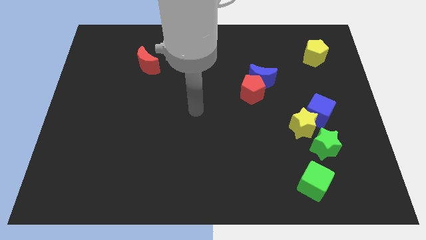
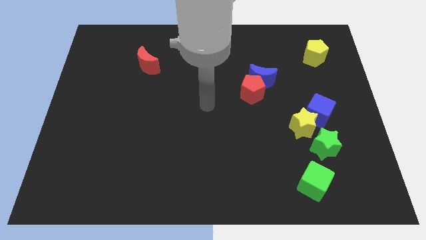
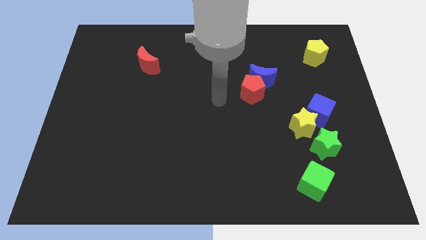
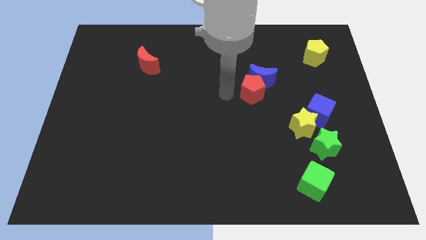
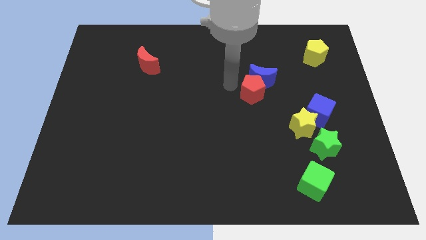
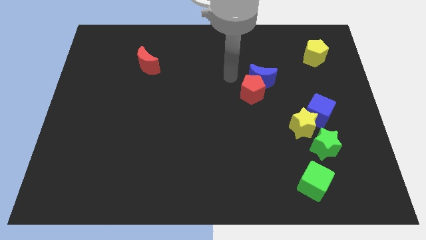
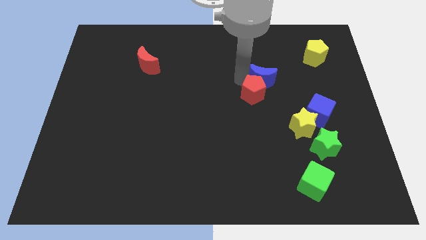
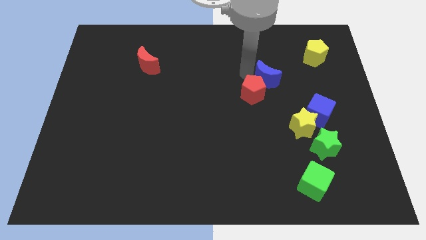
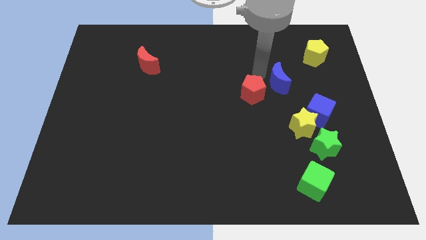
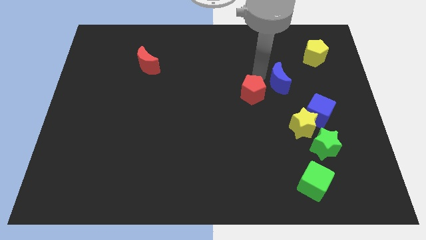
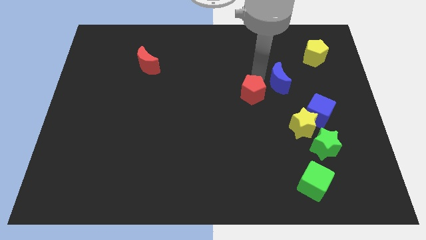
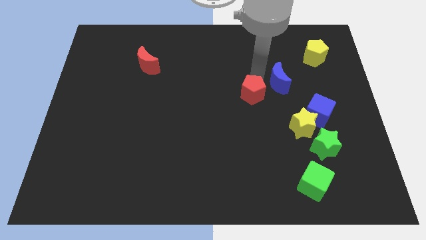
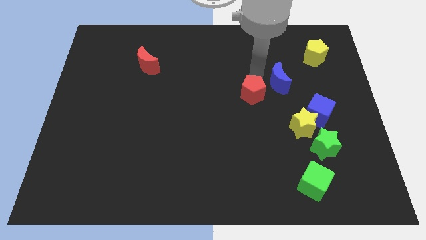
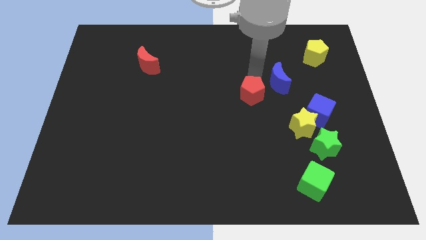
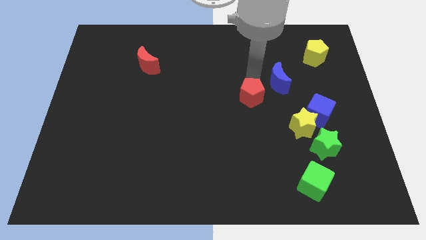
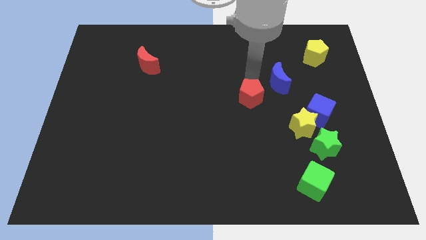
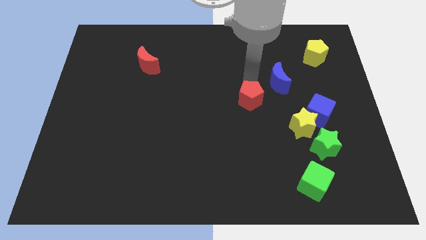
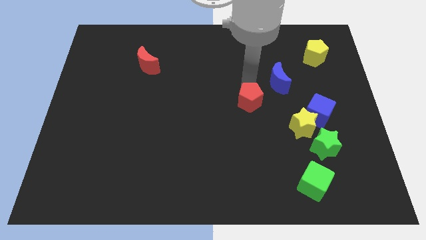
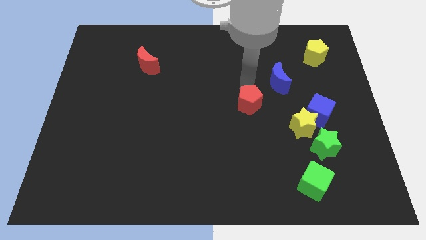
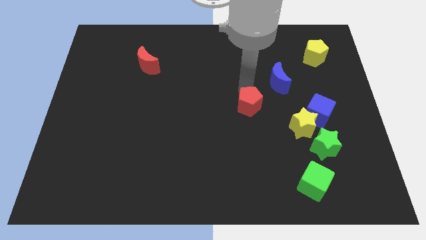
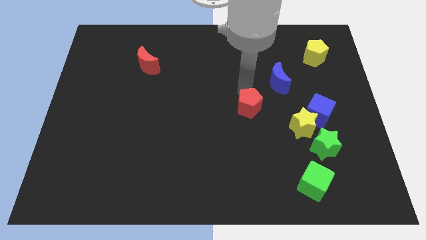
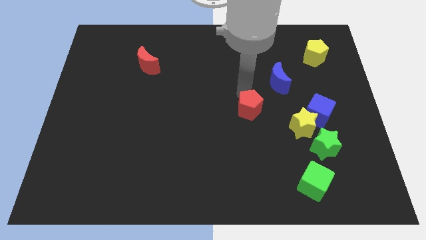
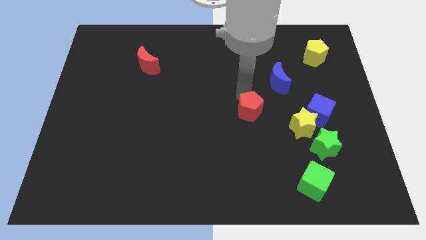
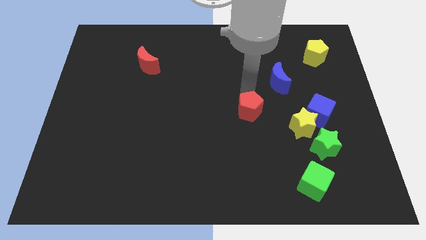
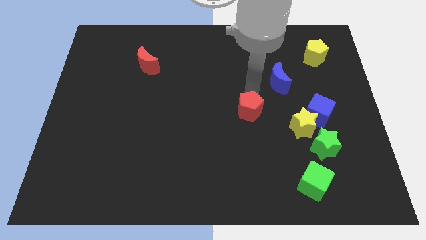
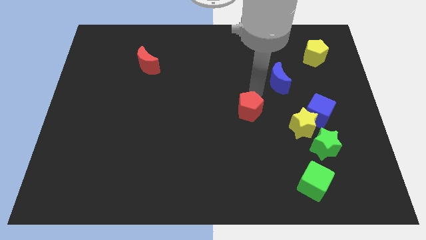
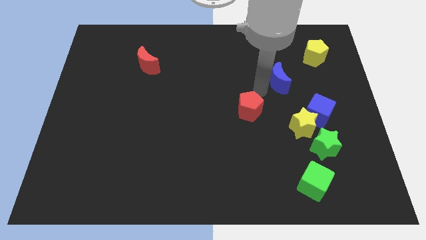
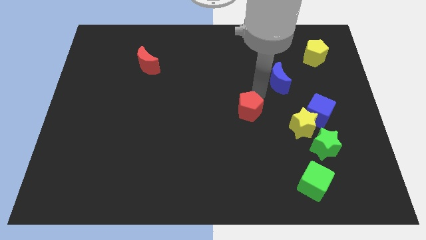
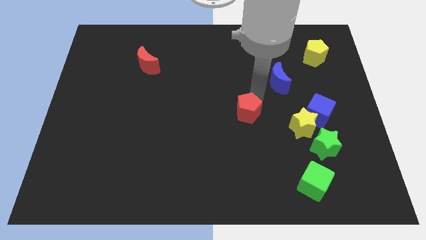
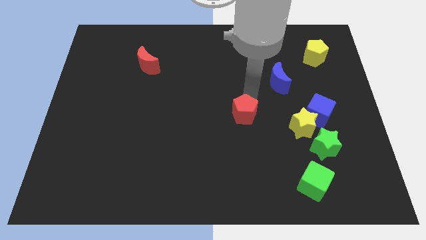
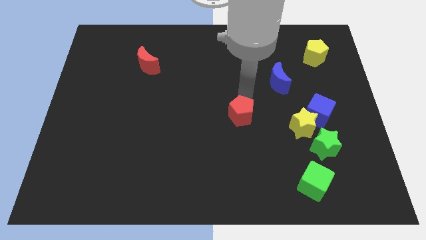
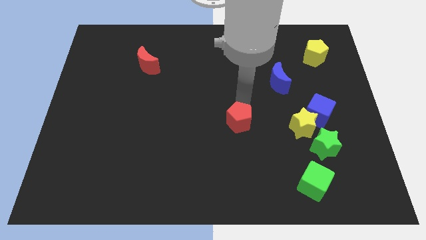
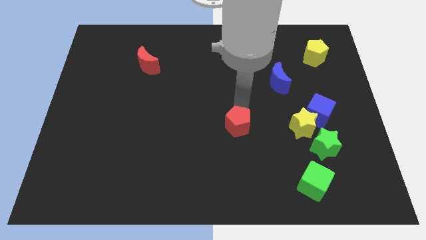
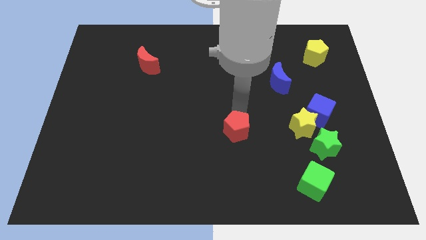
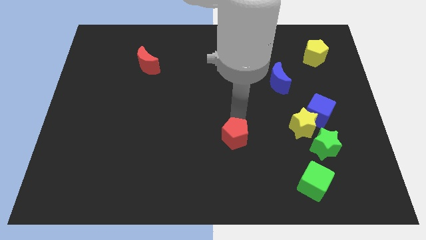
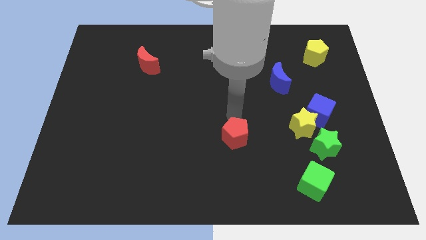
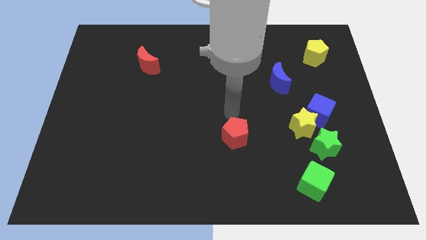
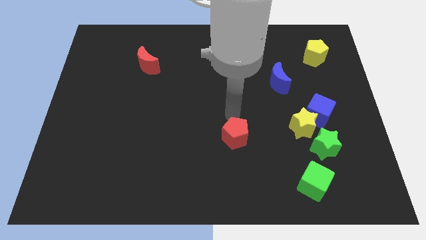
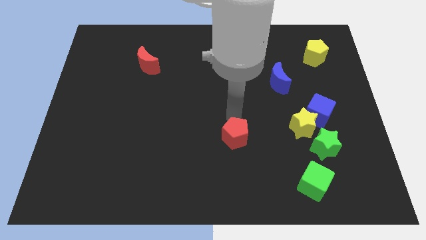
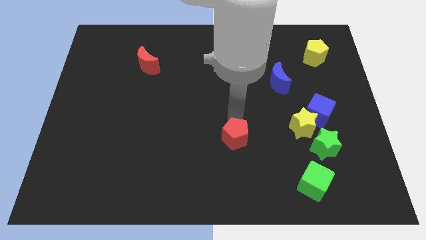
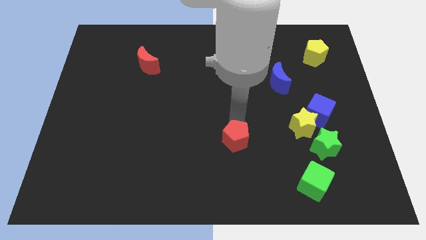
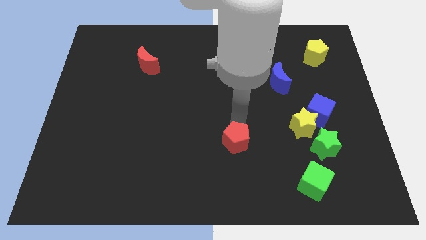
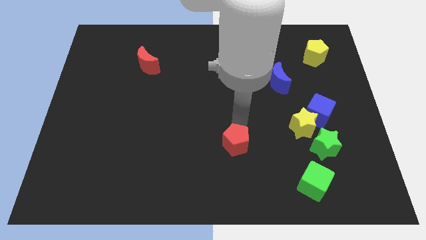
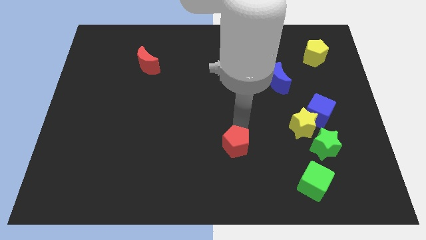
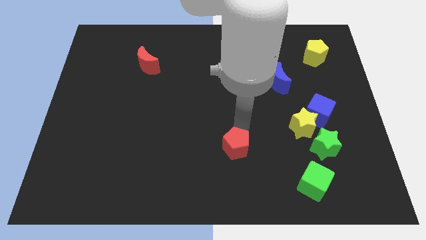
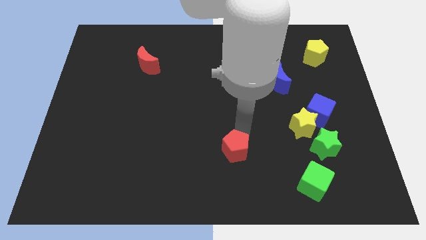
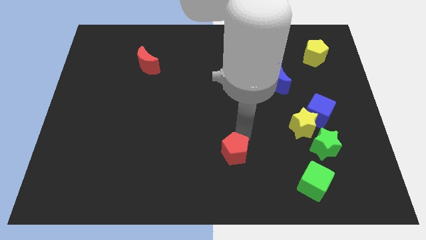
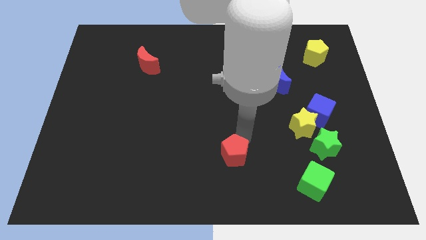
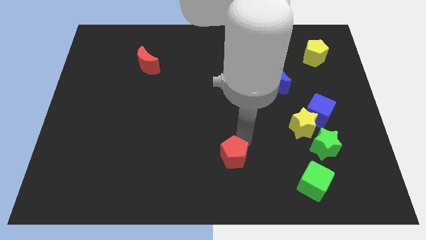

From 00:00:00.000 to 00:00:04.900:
put the red pentagon to the bottom side

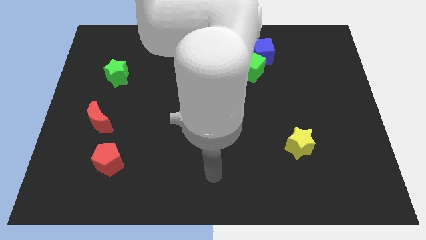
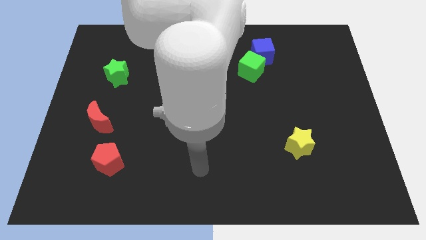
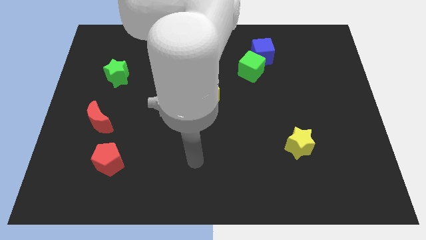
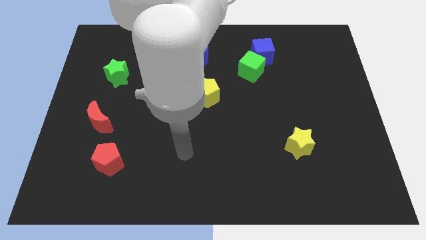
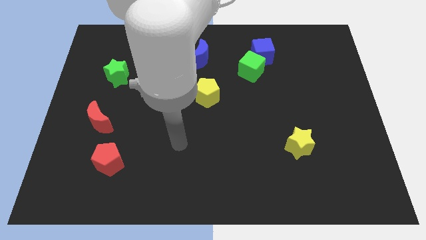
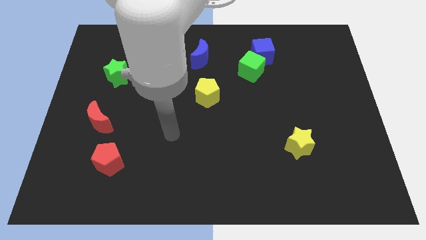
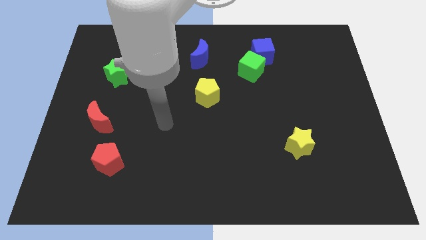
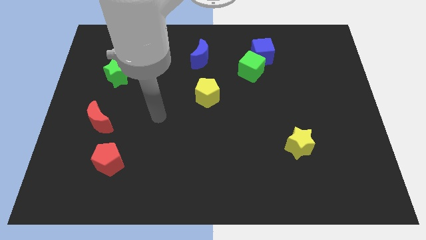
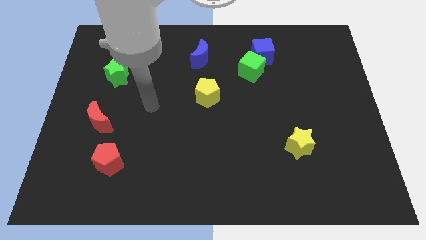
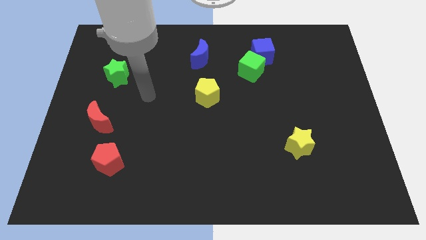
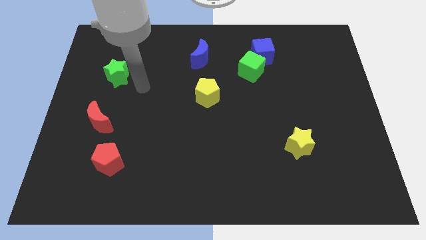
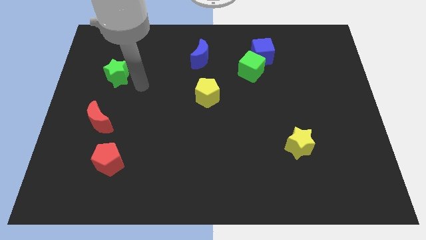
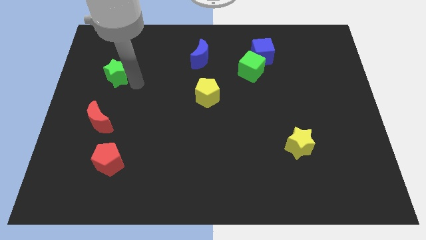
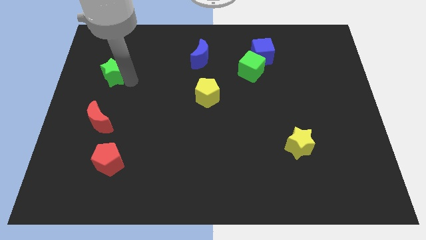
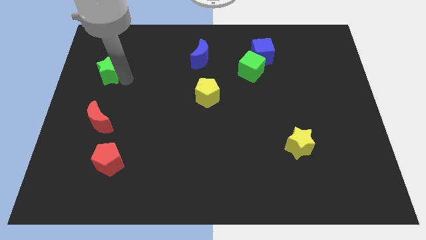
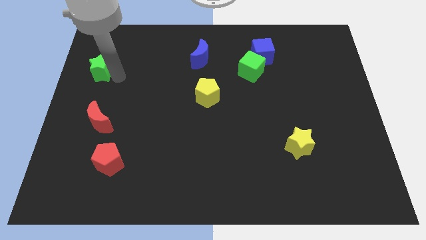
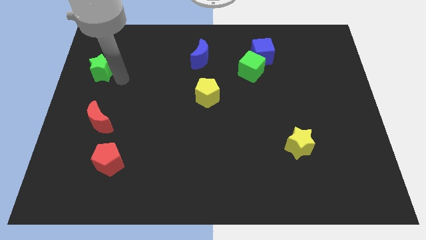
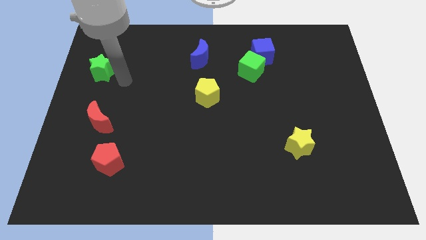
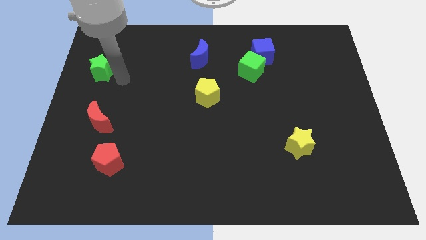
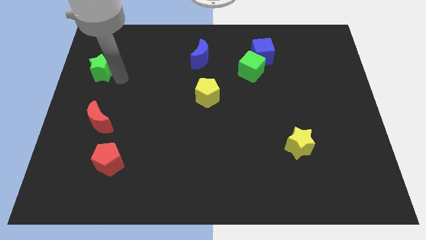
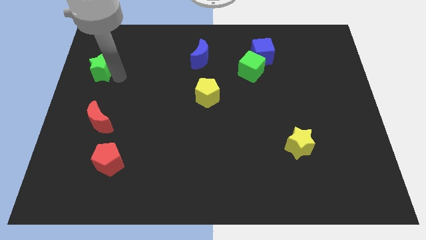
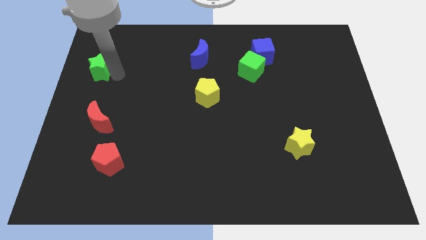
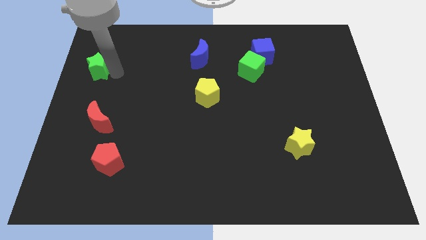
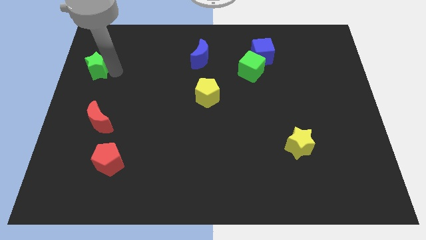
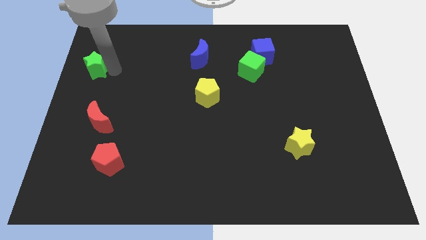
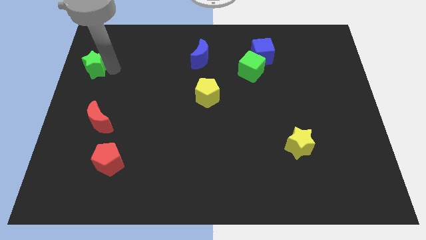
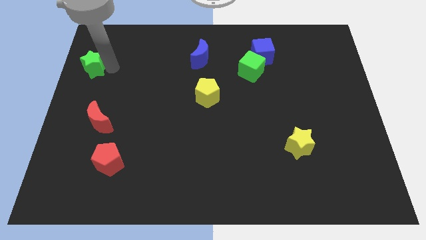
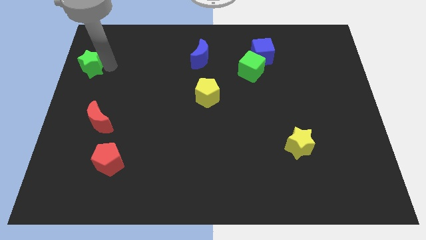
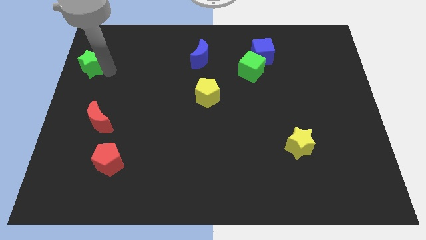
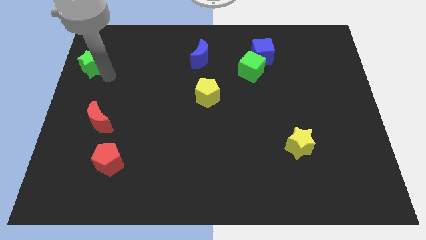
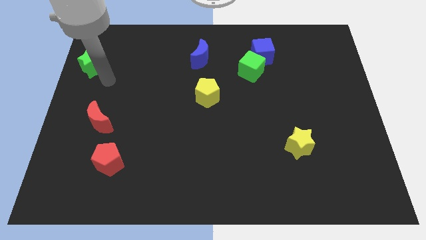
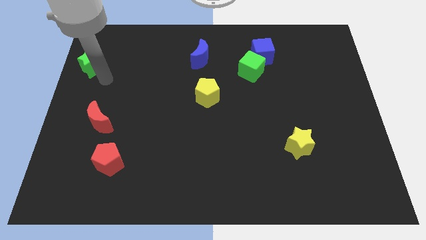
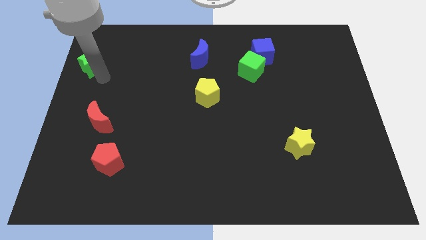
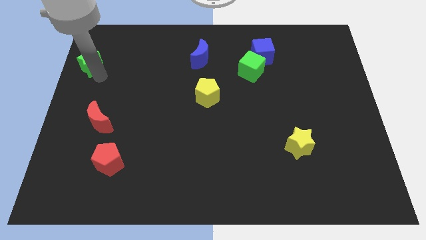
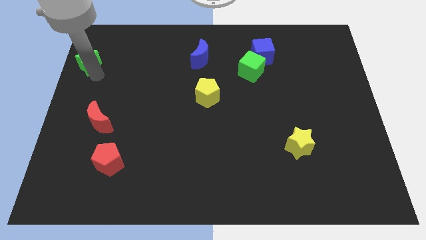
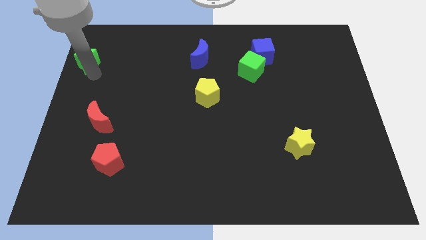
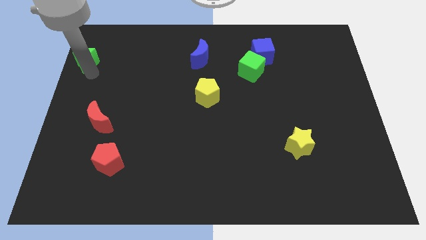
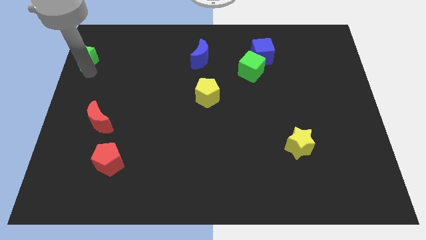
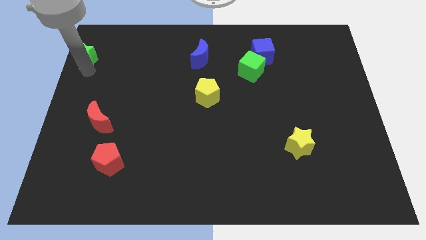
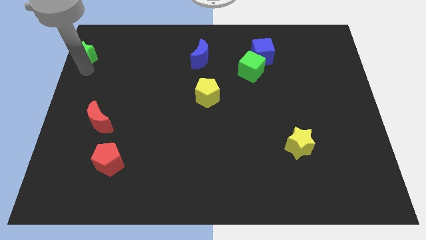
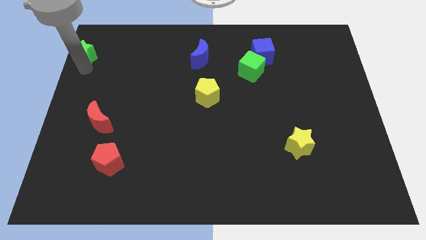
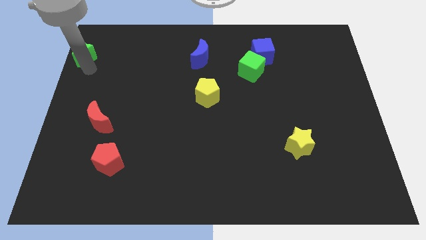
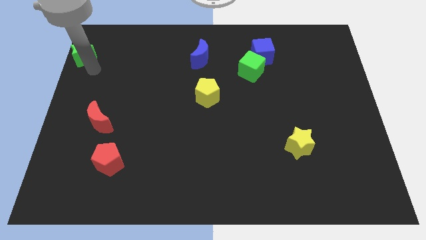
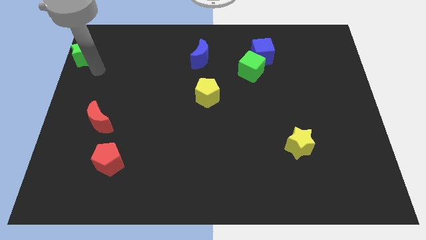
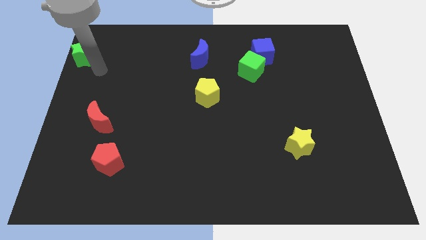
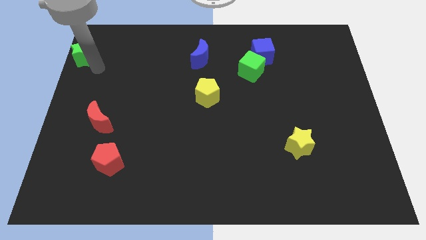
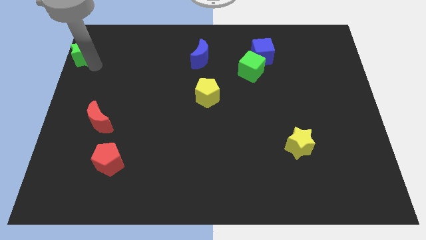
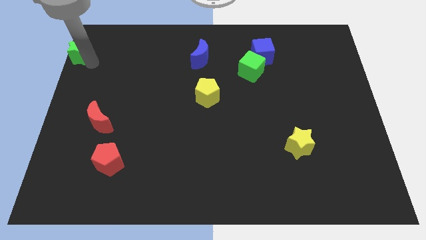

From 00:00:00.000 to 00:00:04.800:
put the green star to the top left corner
